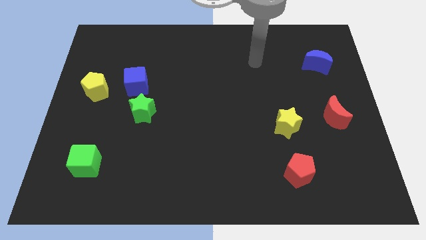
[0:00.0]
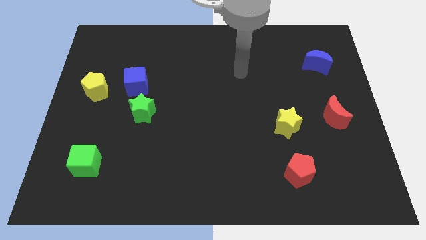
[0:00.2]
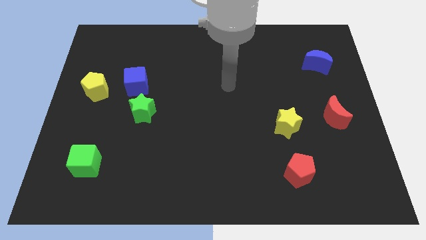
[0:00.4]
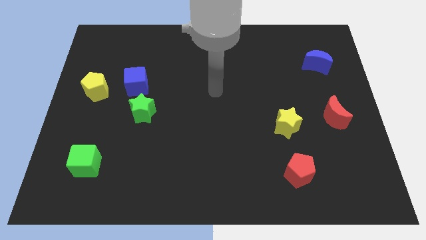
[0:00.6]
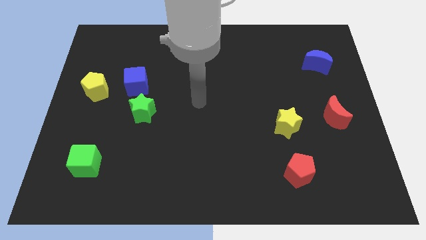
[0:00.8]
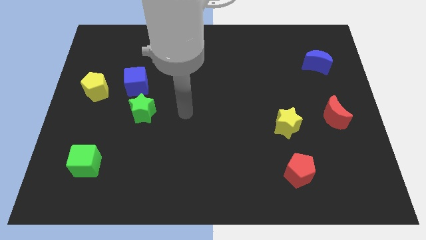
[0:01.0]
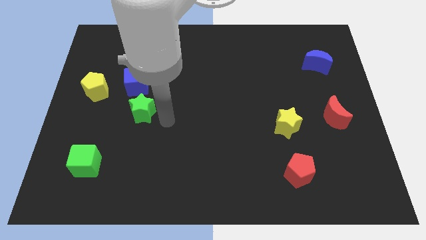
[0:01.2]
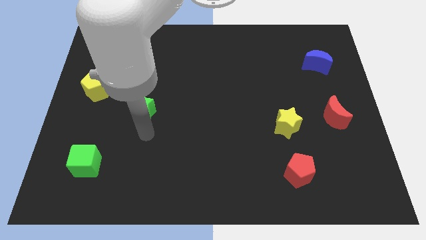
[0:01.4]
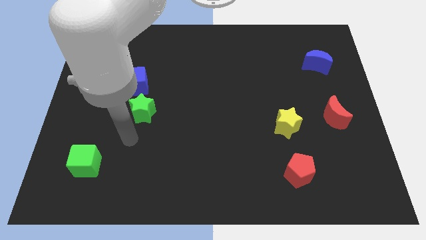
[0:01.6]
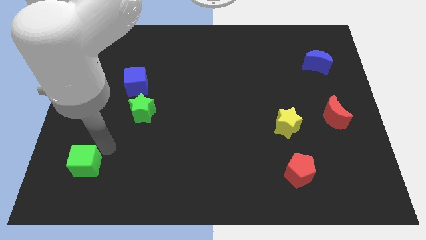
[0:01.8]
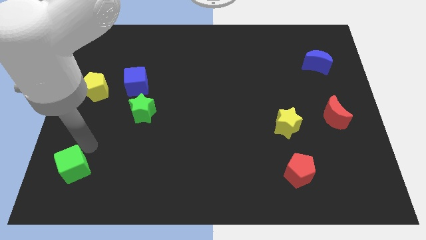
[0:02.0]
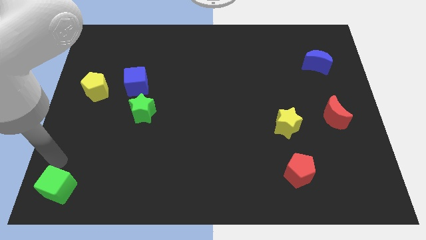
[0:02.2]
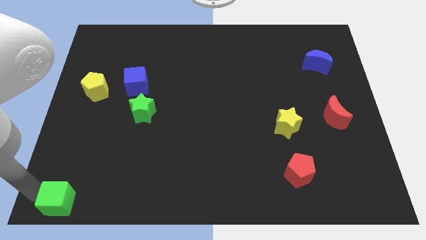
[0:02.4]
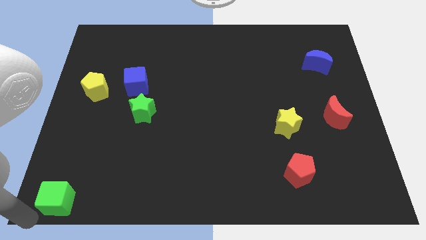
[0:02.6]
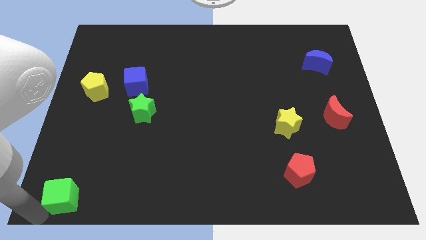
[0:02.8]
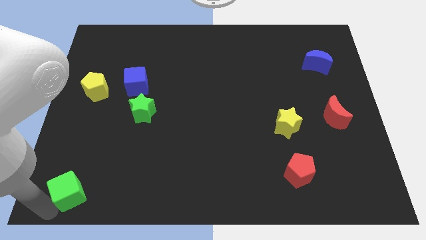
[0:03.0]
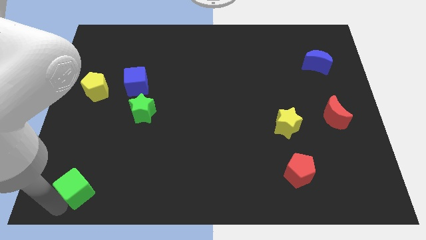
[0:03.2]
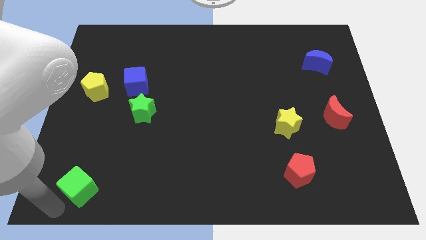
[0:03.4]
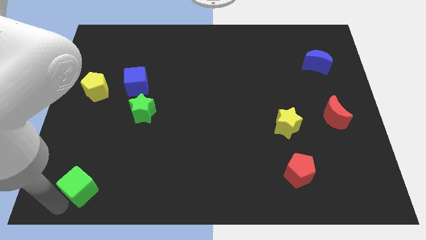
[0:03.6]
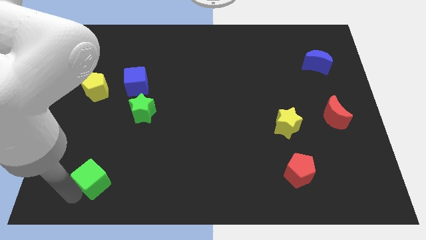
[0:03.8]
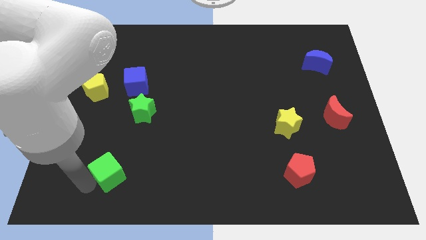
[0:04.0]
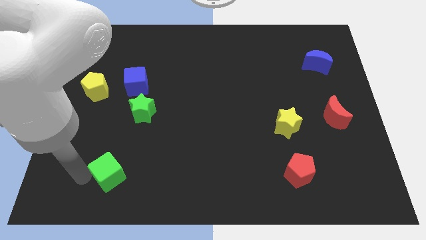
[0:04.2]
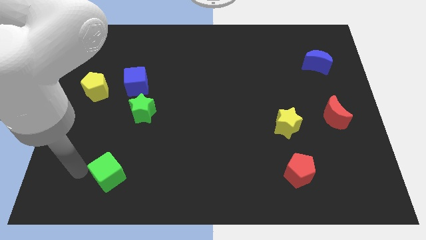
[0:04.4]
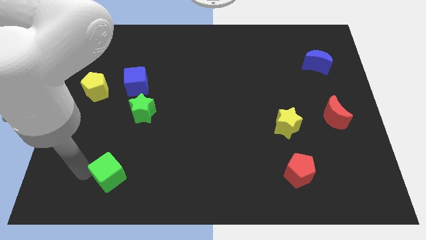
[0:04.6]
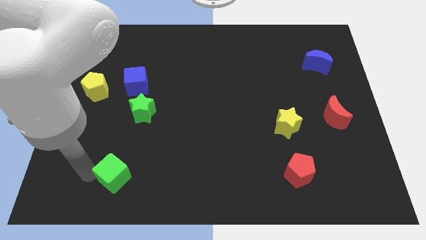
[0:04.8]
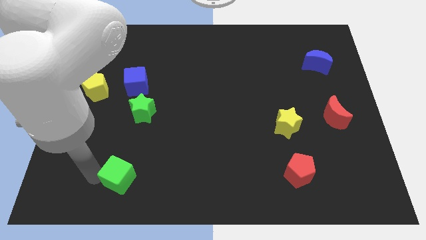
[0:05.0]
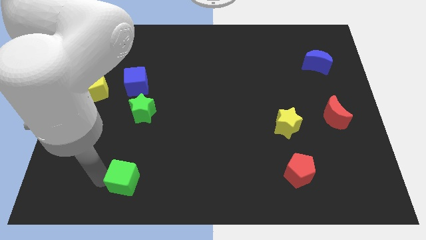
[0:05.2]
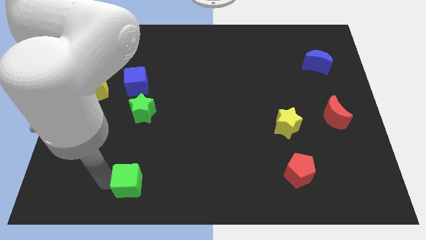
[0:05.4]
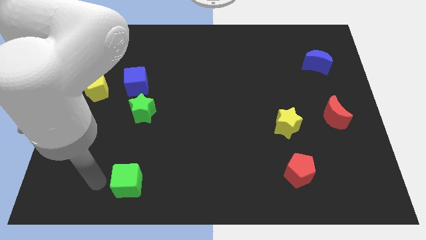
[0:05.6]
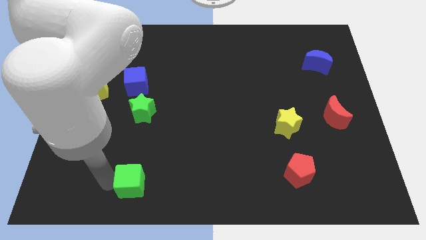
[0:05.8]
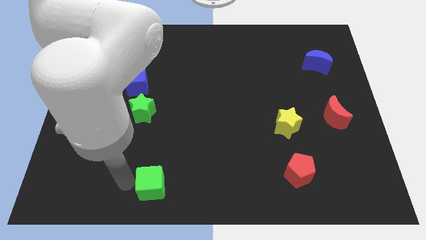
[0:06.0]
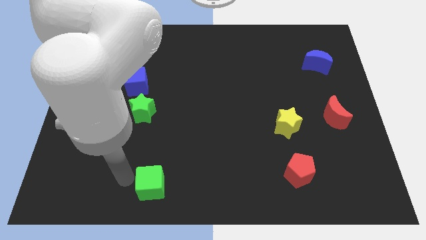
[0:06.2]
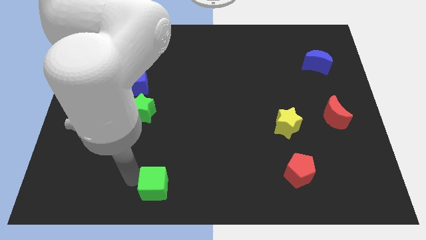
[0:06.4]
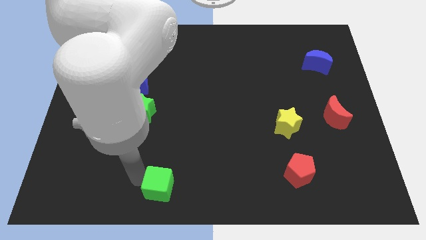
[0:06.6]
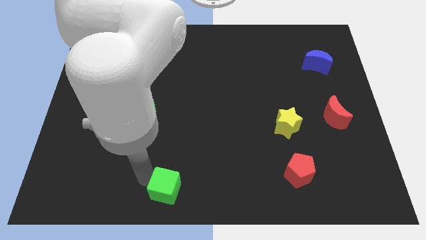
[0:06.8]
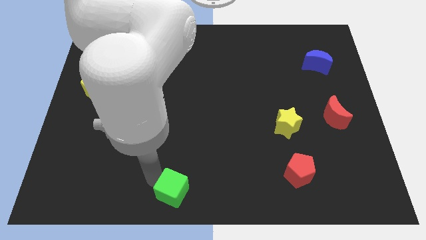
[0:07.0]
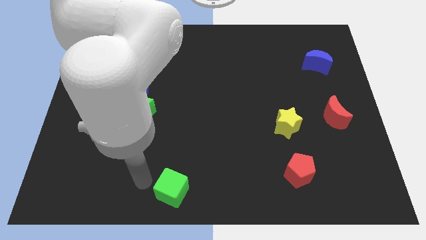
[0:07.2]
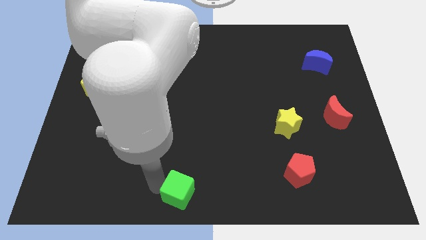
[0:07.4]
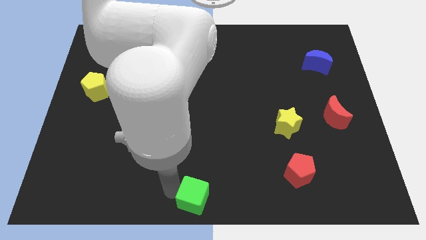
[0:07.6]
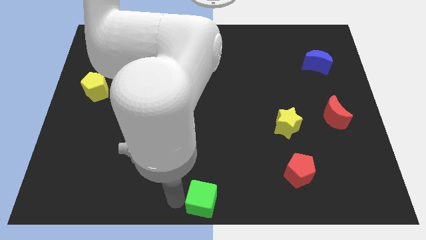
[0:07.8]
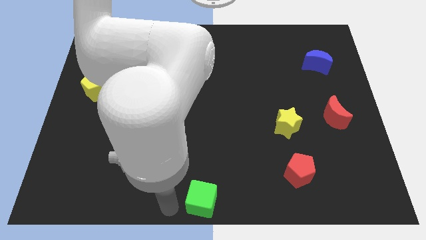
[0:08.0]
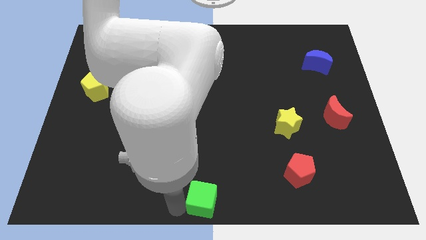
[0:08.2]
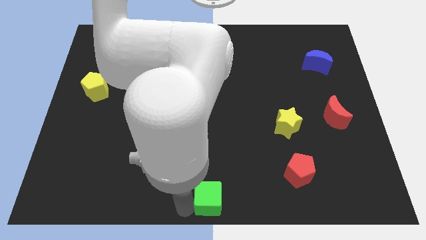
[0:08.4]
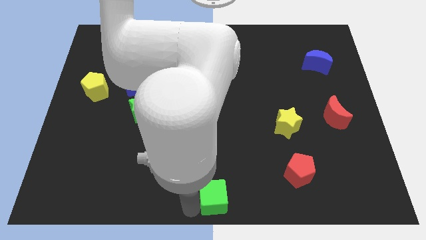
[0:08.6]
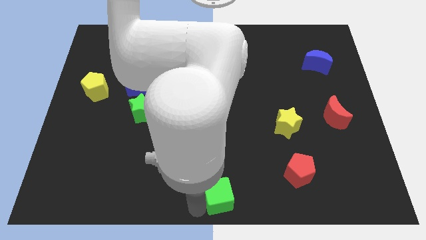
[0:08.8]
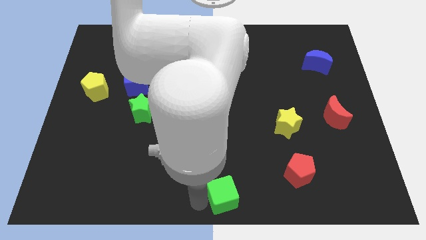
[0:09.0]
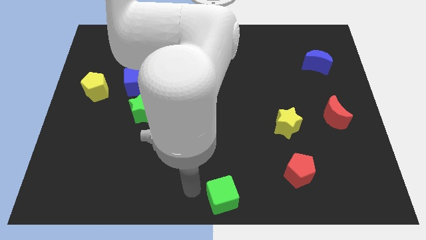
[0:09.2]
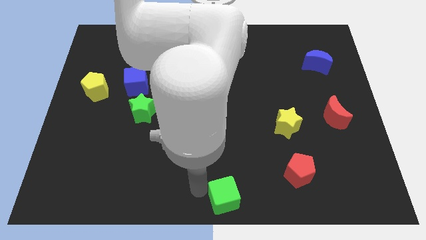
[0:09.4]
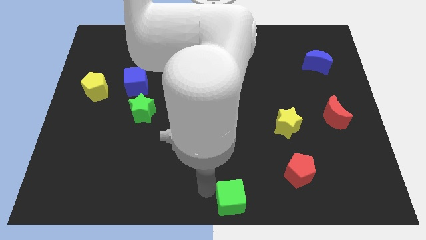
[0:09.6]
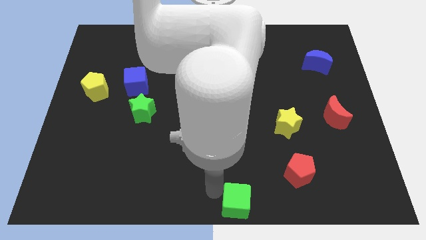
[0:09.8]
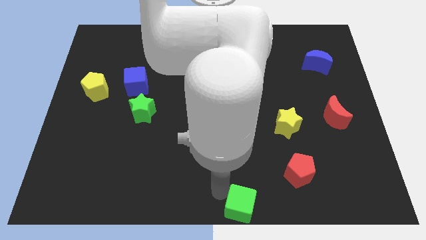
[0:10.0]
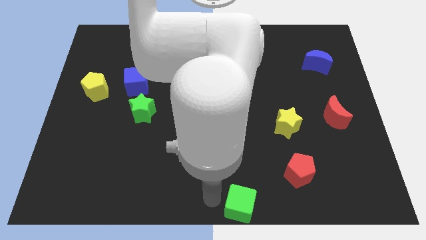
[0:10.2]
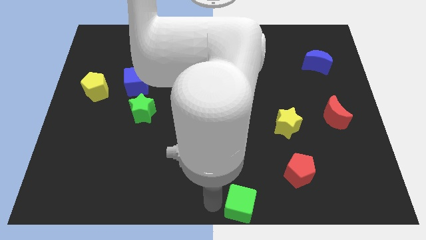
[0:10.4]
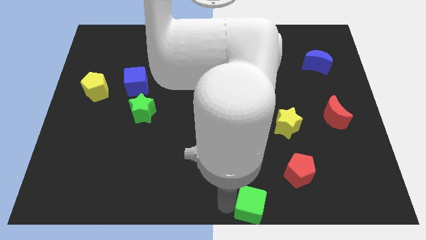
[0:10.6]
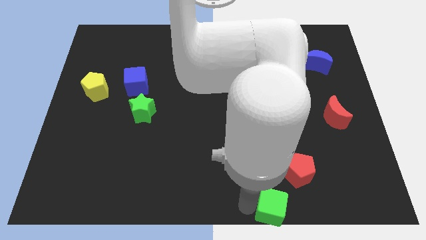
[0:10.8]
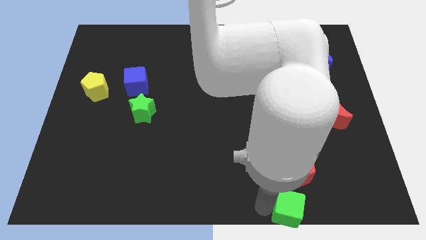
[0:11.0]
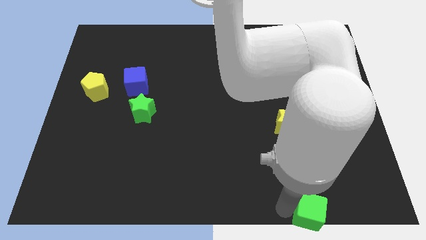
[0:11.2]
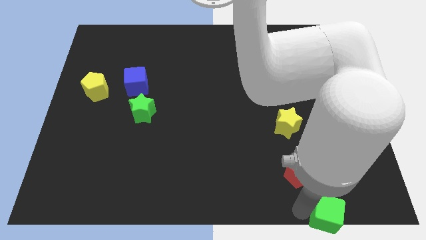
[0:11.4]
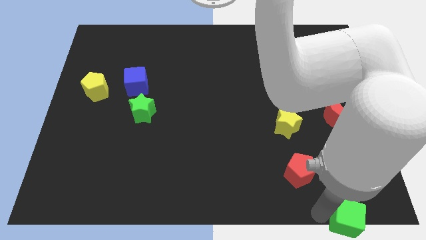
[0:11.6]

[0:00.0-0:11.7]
push the green cube to the bottom right corner
